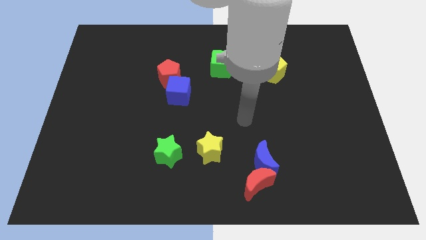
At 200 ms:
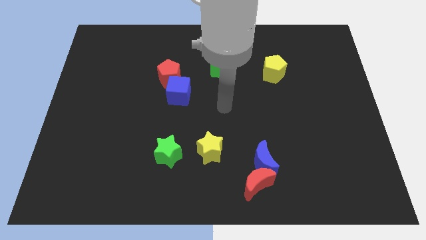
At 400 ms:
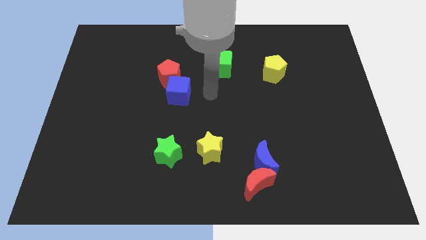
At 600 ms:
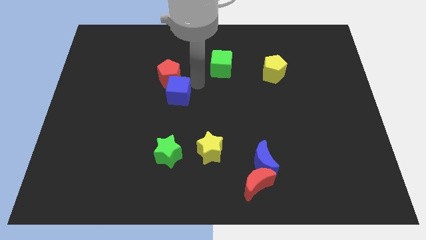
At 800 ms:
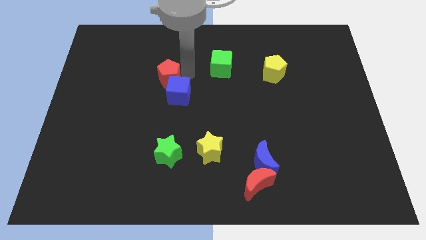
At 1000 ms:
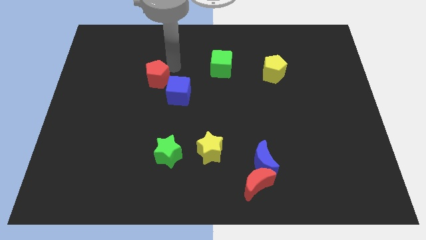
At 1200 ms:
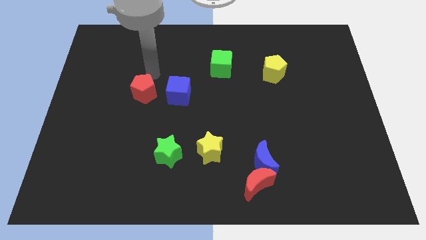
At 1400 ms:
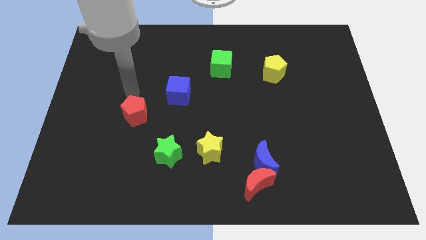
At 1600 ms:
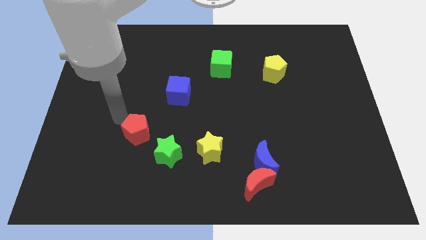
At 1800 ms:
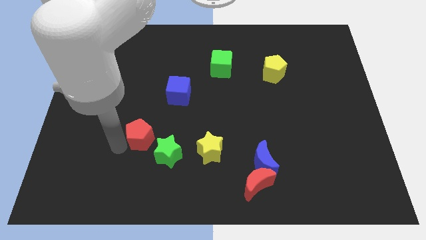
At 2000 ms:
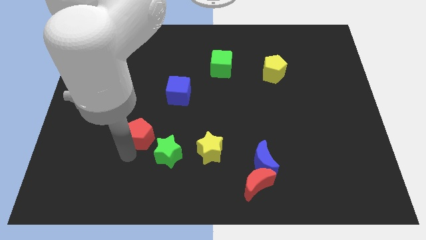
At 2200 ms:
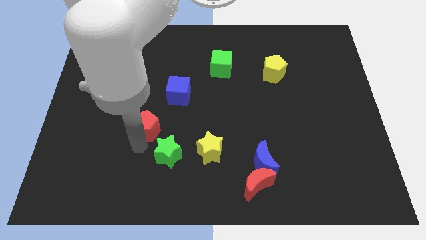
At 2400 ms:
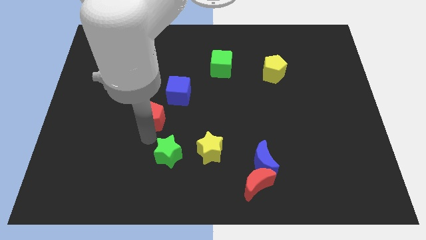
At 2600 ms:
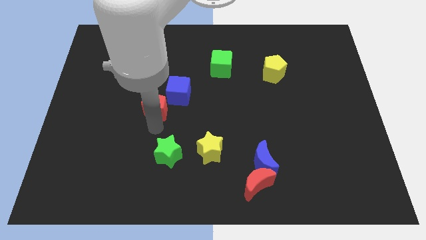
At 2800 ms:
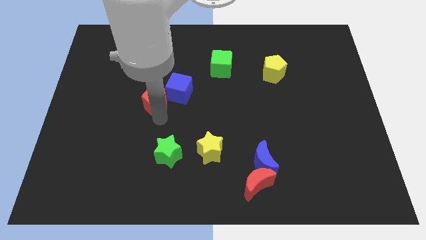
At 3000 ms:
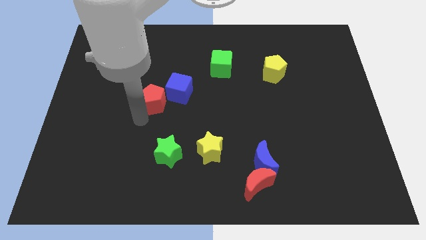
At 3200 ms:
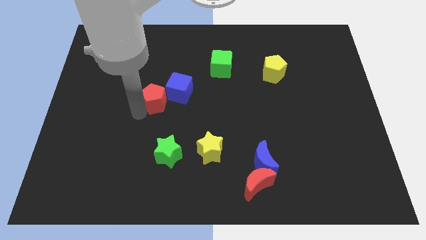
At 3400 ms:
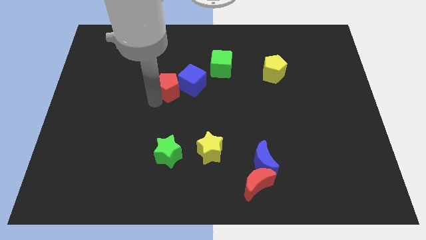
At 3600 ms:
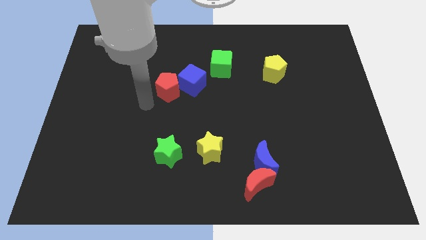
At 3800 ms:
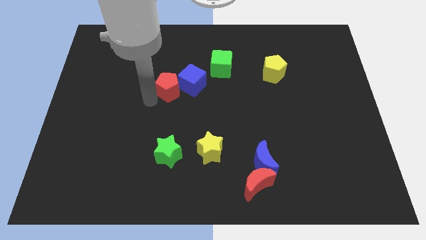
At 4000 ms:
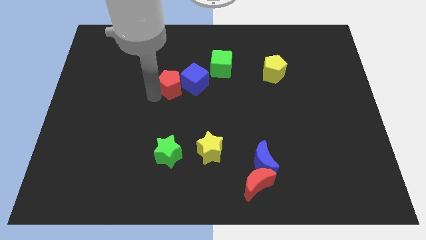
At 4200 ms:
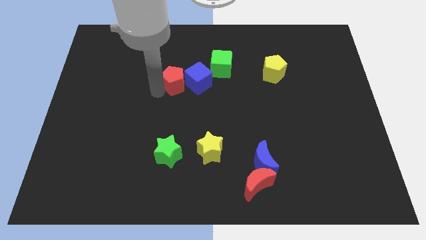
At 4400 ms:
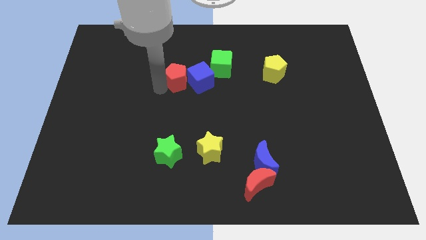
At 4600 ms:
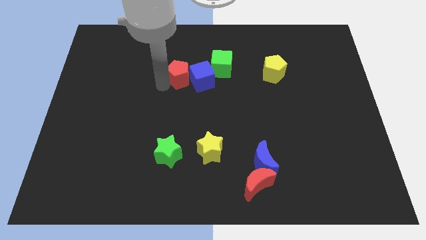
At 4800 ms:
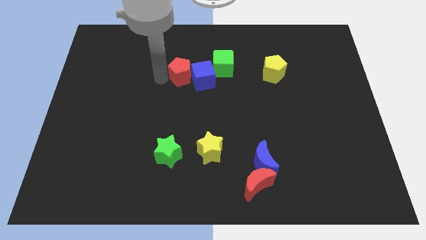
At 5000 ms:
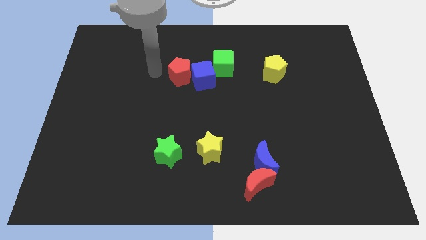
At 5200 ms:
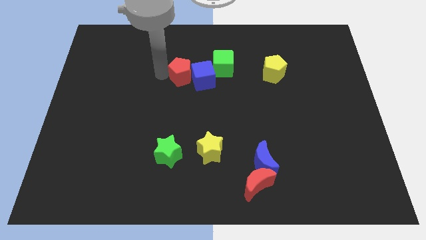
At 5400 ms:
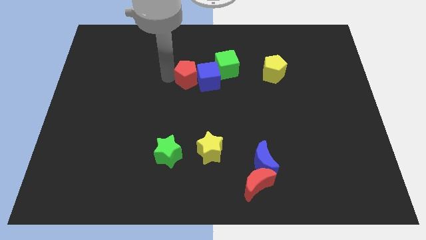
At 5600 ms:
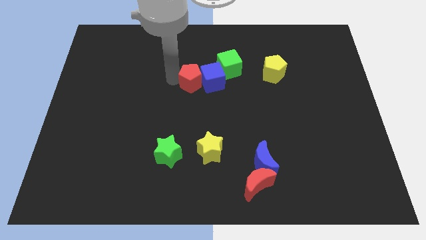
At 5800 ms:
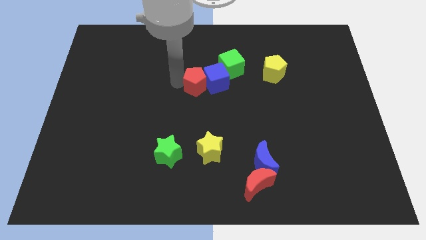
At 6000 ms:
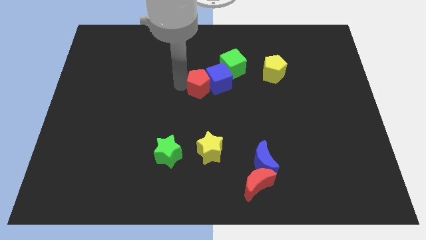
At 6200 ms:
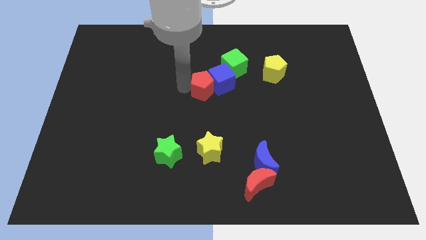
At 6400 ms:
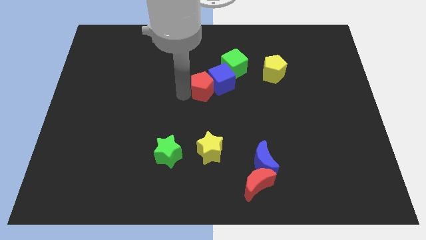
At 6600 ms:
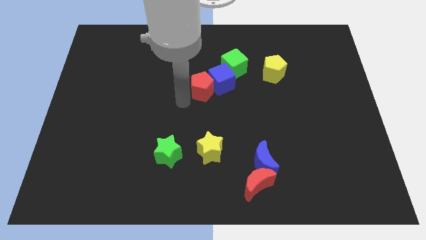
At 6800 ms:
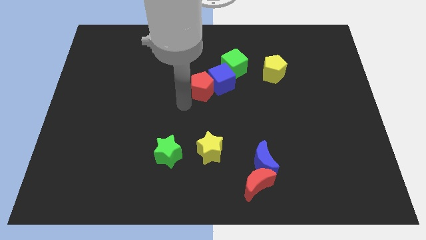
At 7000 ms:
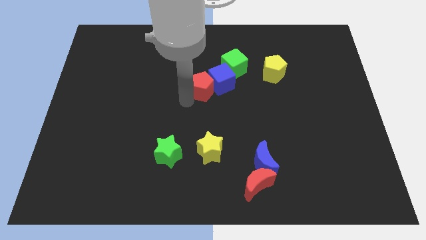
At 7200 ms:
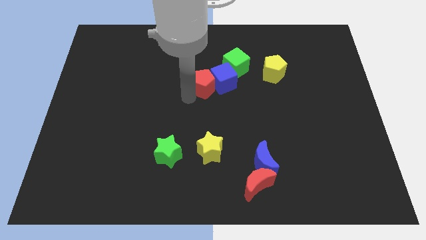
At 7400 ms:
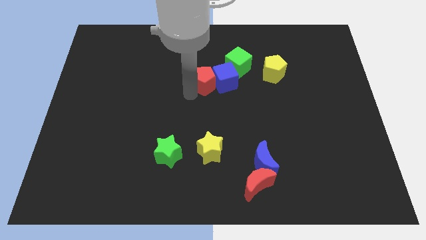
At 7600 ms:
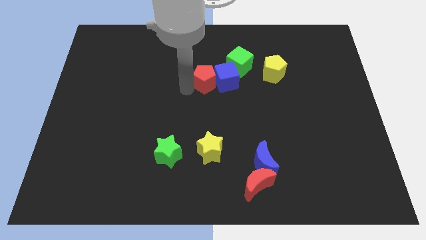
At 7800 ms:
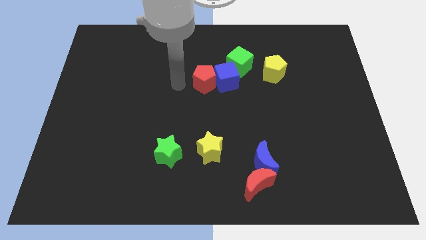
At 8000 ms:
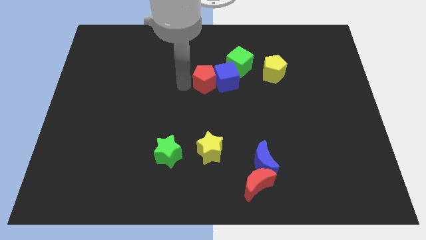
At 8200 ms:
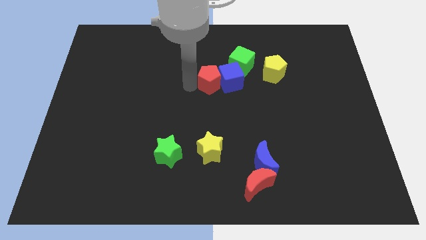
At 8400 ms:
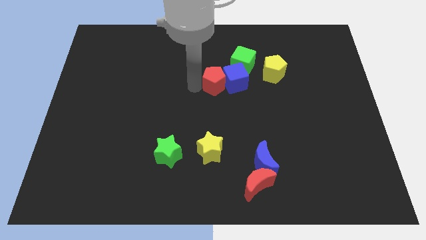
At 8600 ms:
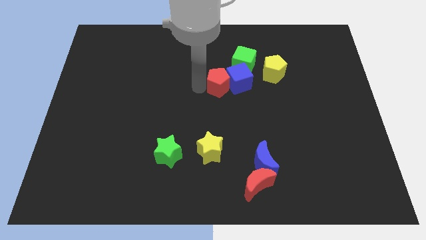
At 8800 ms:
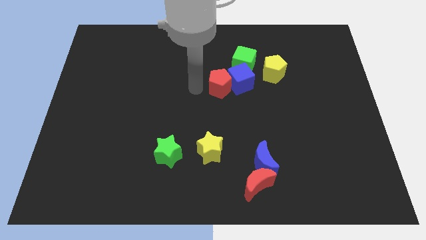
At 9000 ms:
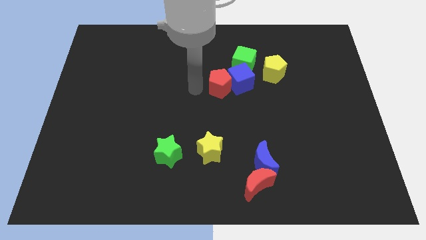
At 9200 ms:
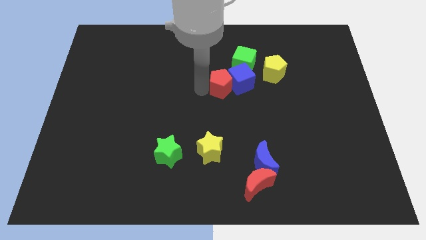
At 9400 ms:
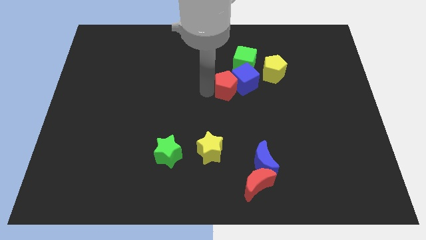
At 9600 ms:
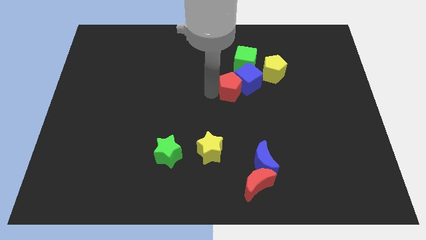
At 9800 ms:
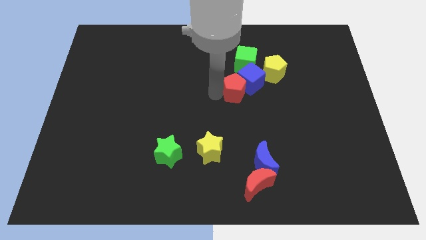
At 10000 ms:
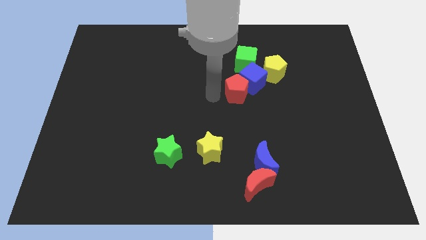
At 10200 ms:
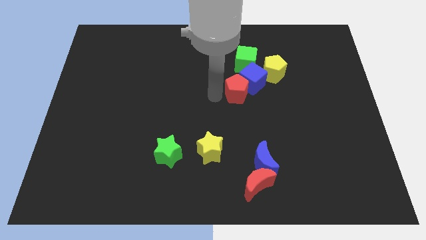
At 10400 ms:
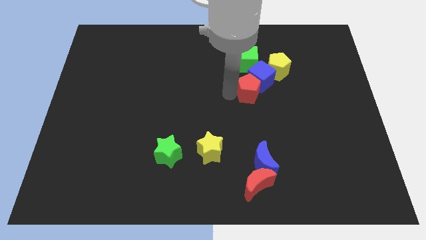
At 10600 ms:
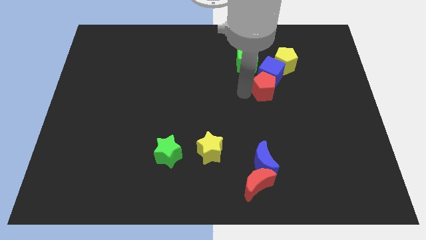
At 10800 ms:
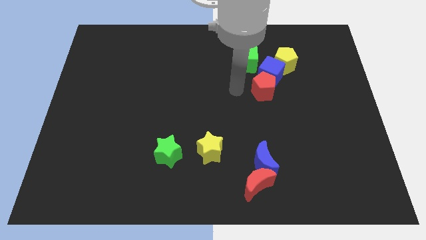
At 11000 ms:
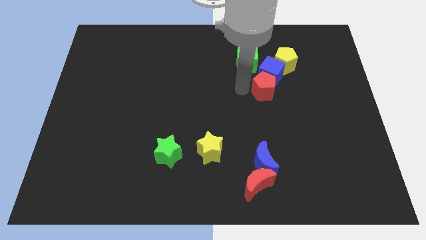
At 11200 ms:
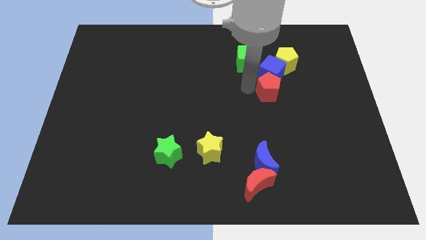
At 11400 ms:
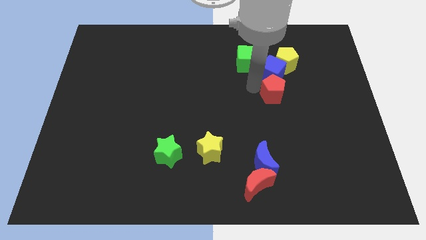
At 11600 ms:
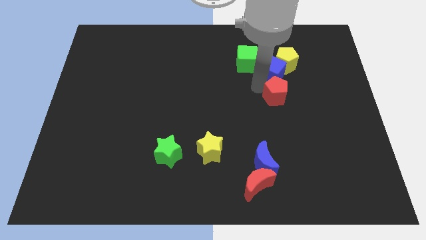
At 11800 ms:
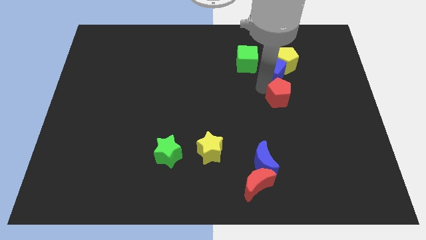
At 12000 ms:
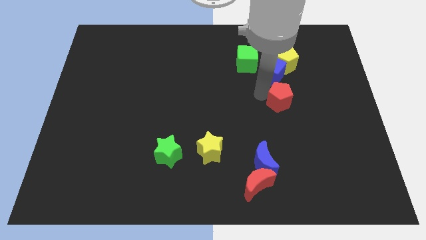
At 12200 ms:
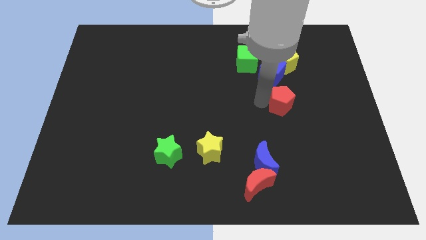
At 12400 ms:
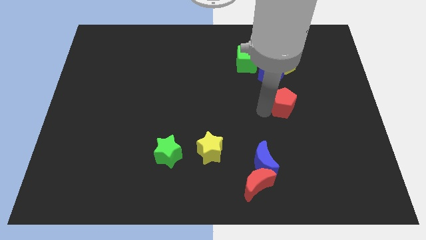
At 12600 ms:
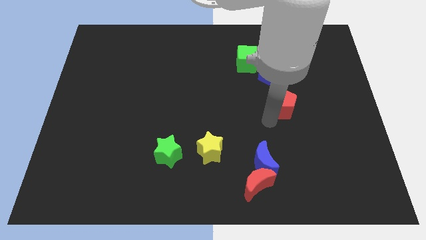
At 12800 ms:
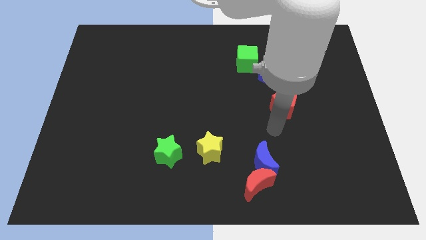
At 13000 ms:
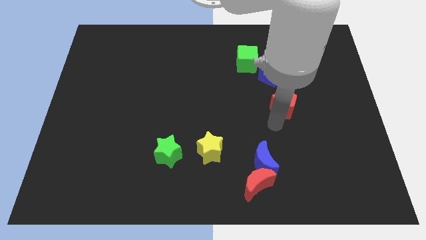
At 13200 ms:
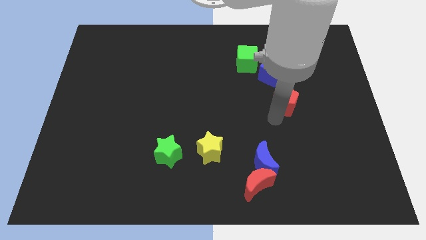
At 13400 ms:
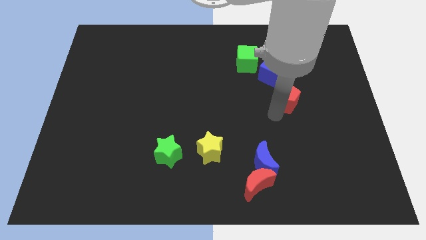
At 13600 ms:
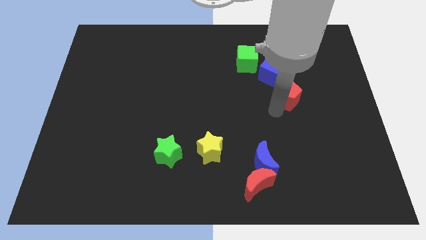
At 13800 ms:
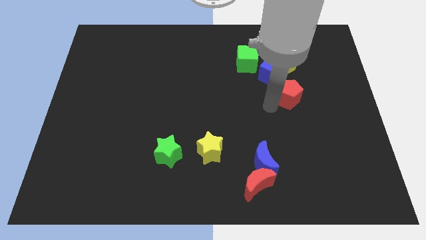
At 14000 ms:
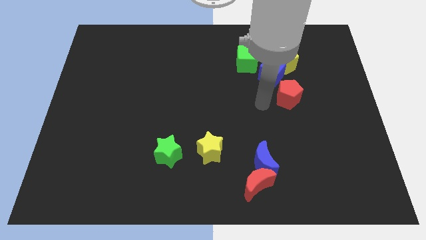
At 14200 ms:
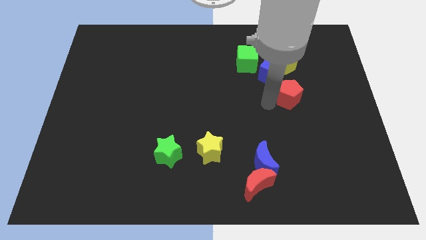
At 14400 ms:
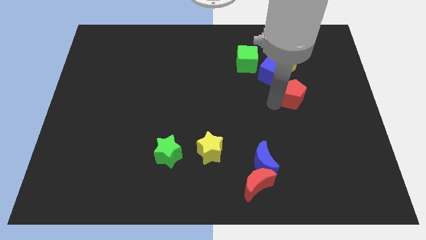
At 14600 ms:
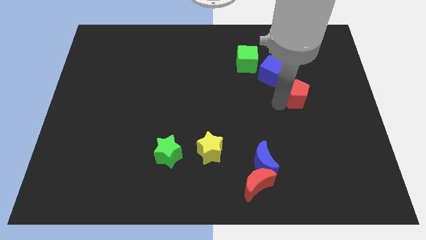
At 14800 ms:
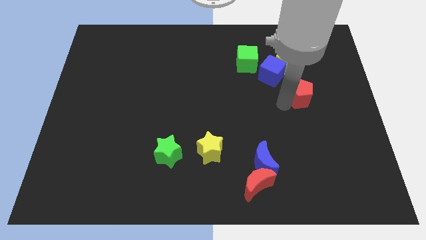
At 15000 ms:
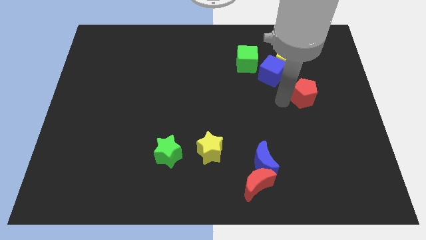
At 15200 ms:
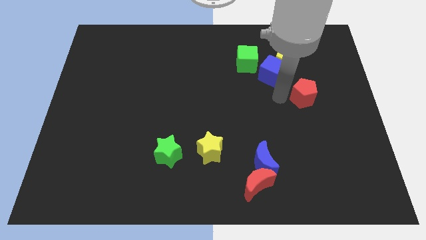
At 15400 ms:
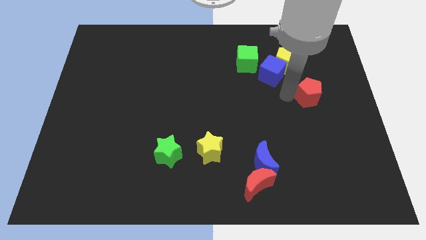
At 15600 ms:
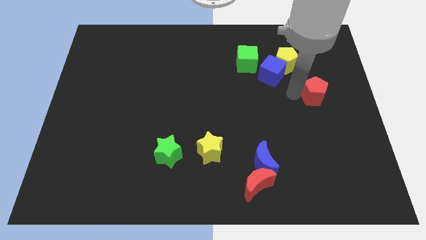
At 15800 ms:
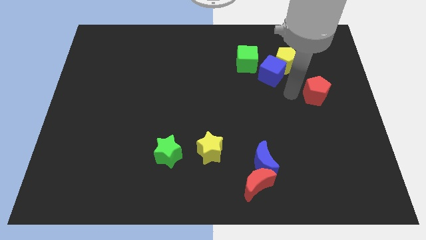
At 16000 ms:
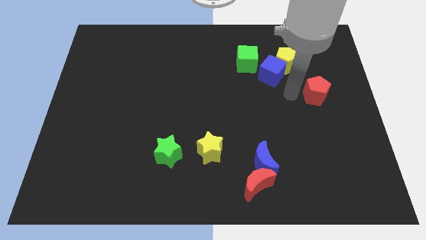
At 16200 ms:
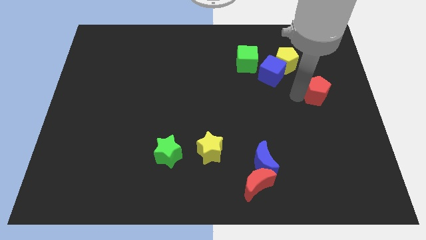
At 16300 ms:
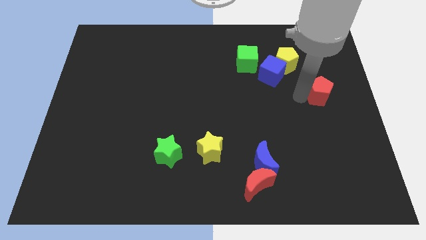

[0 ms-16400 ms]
slide the red pentagon to the right side
